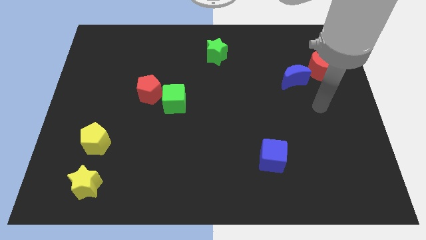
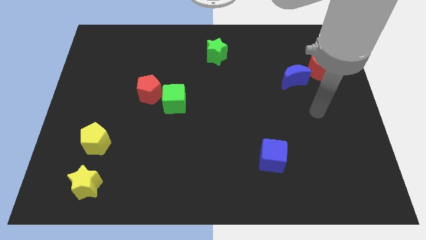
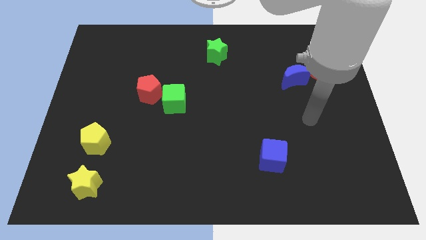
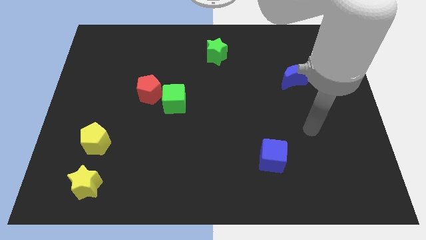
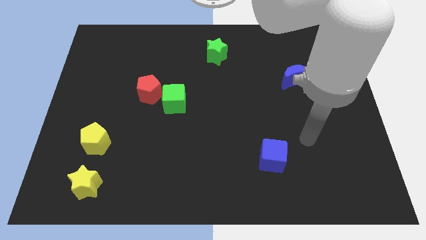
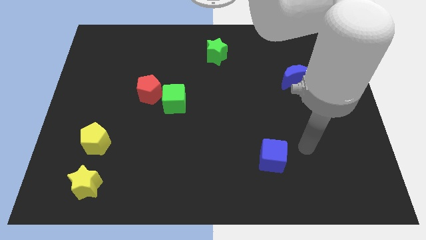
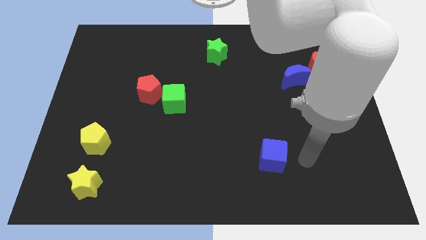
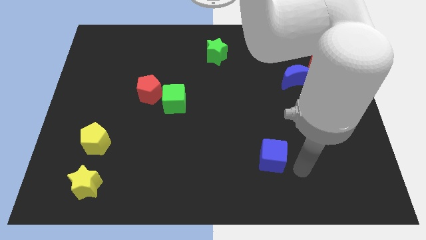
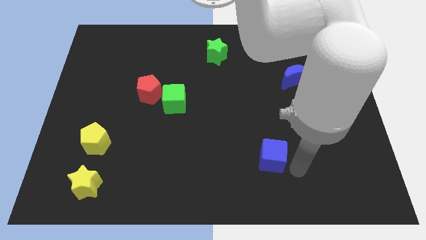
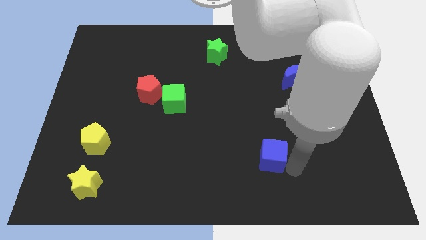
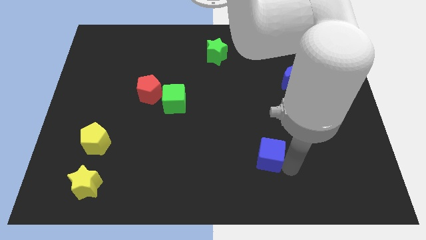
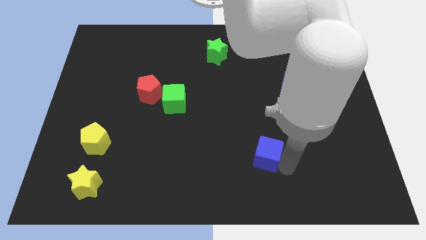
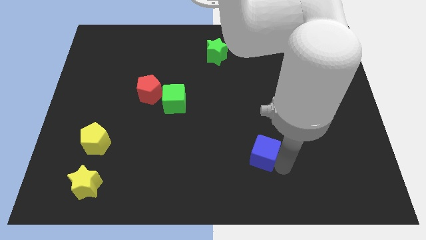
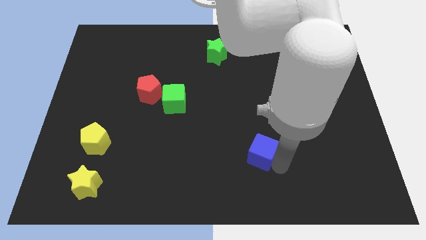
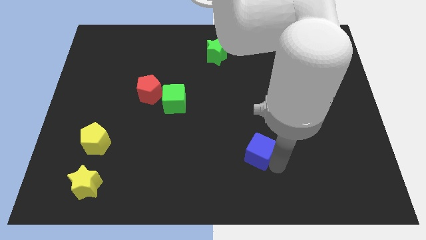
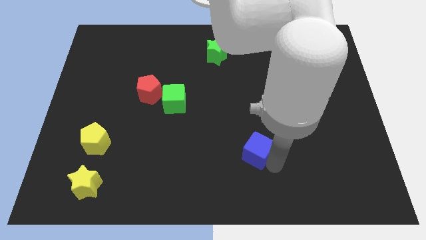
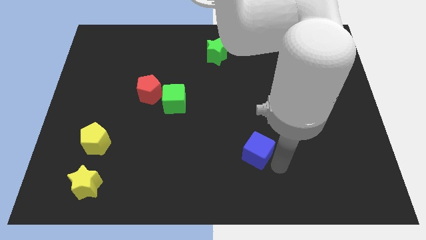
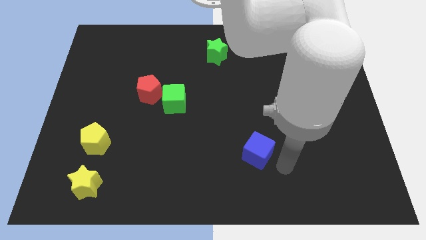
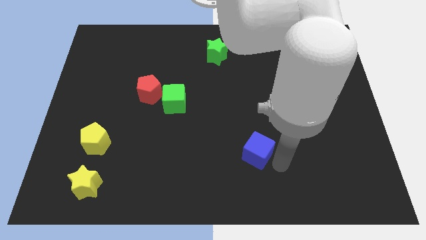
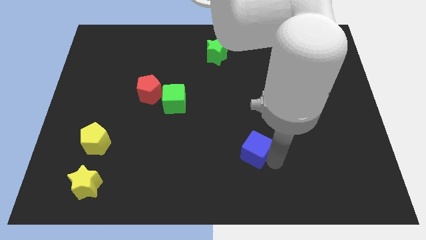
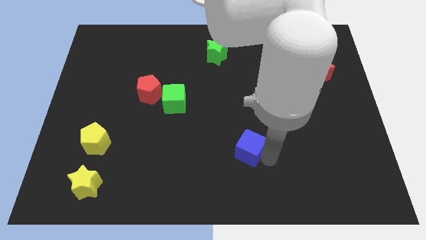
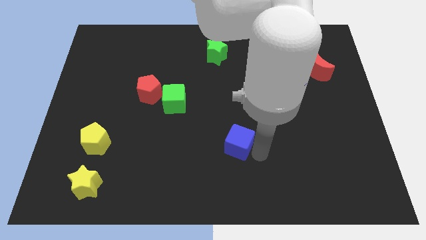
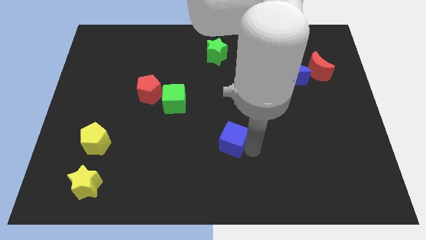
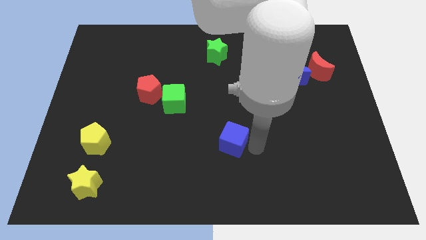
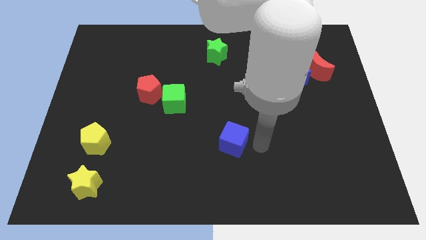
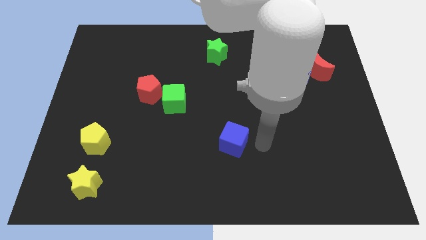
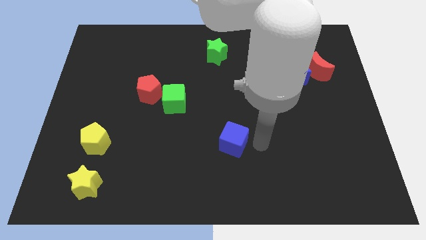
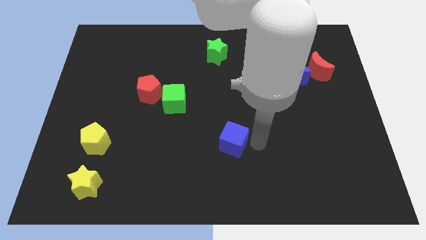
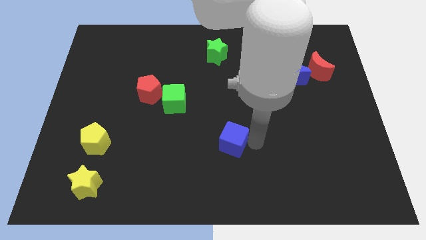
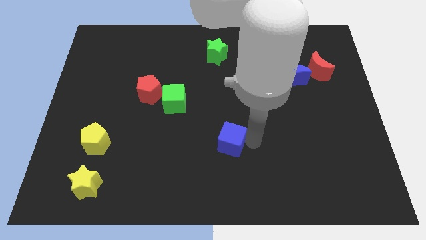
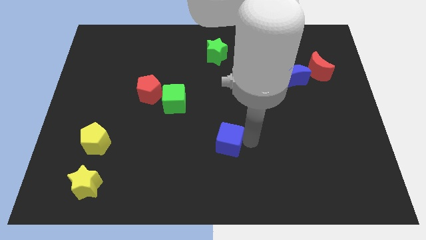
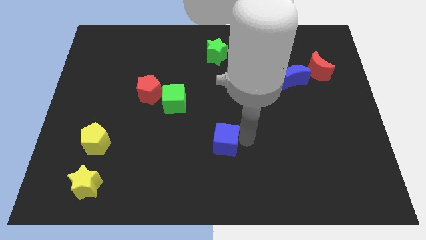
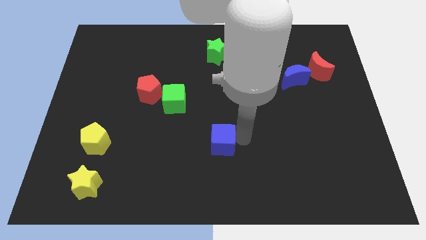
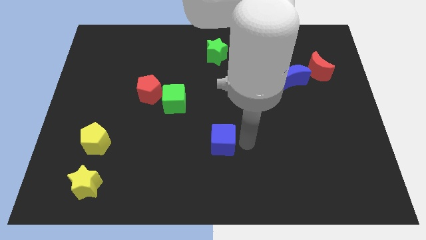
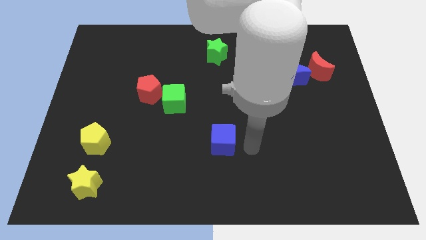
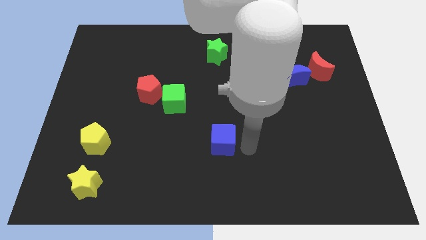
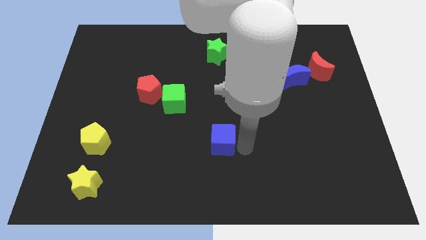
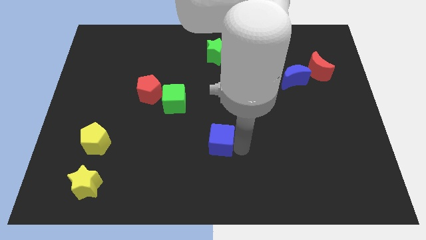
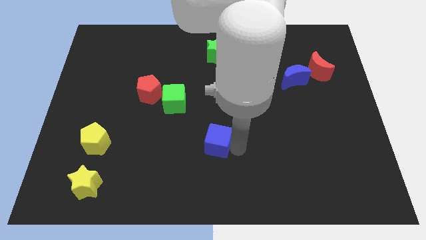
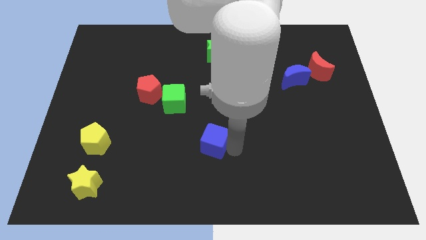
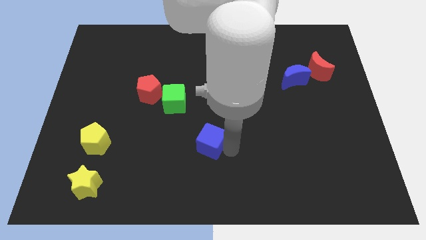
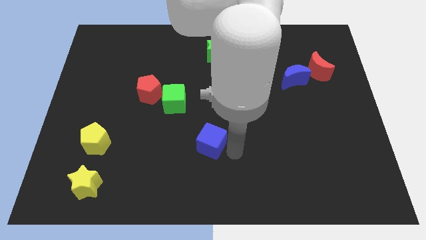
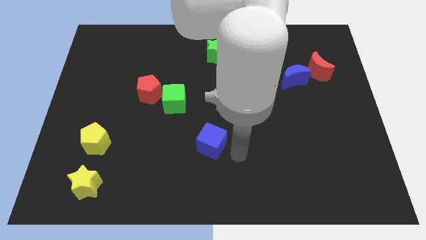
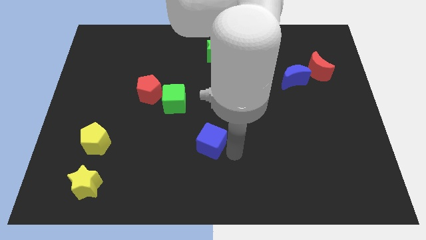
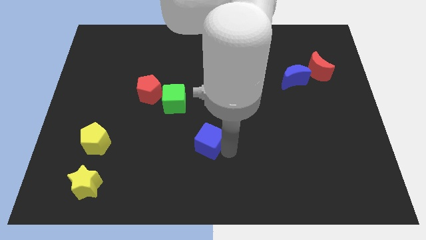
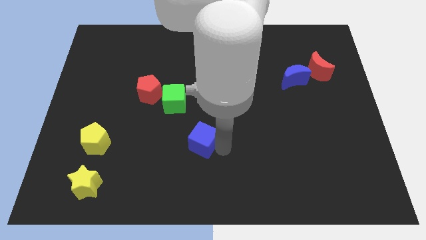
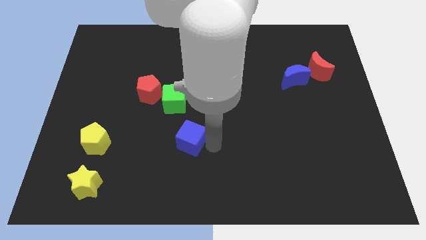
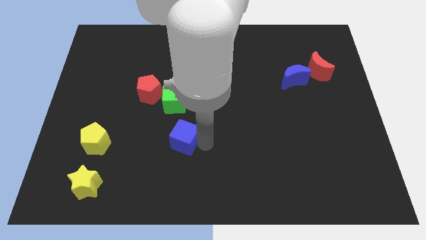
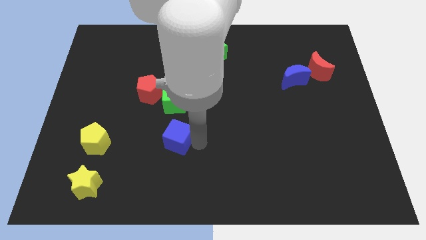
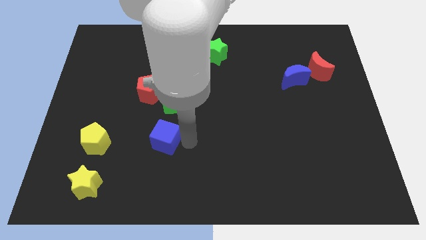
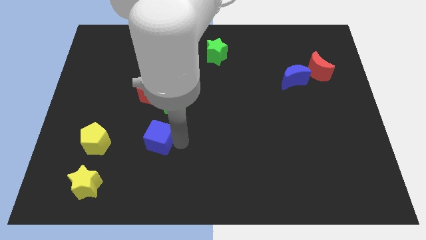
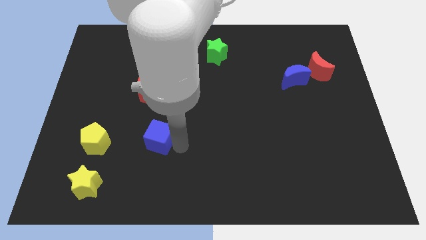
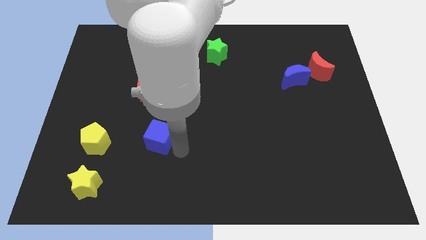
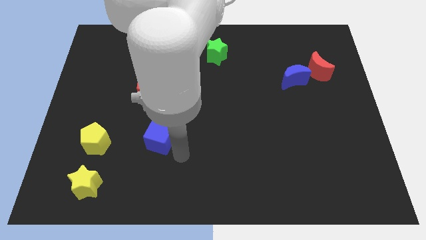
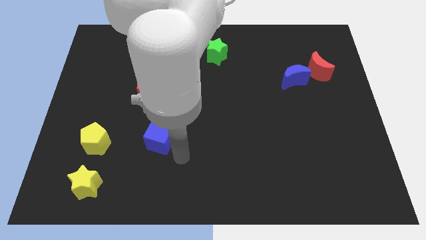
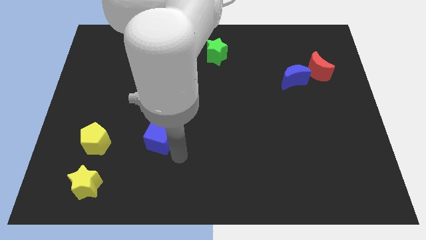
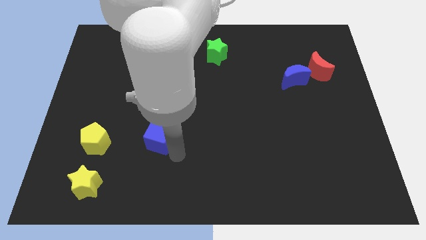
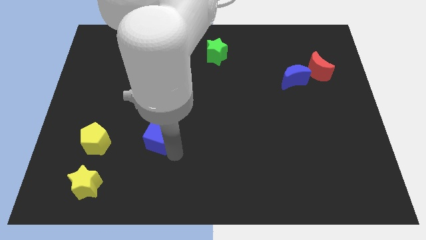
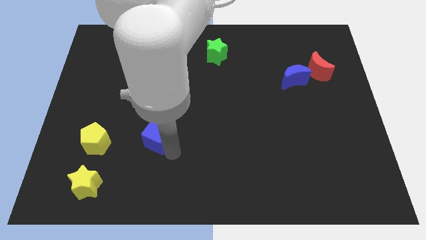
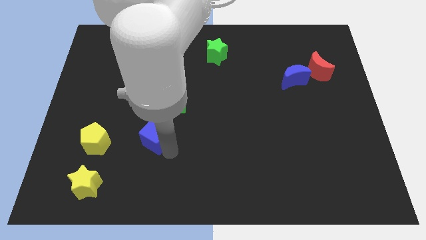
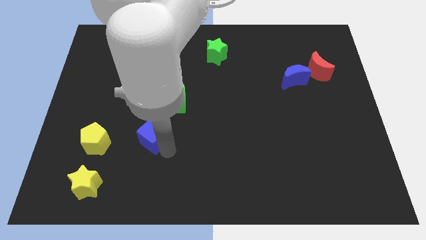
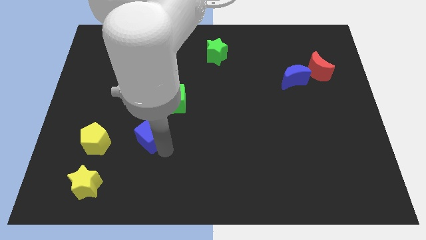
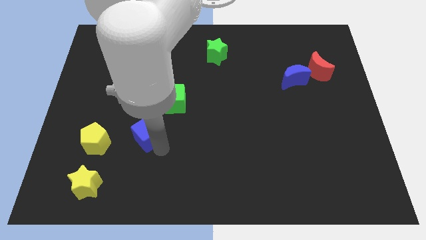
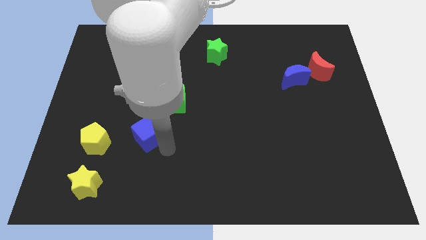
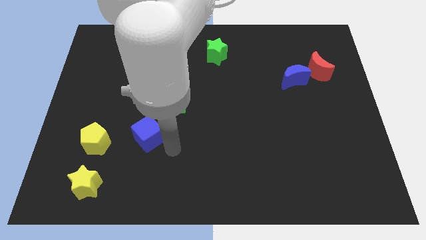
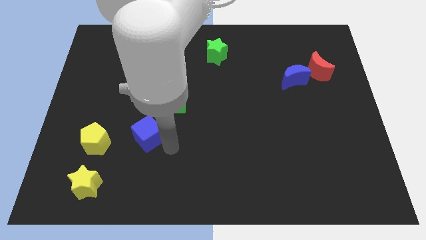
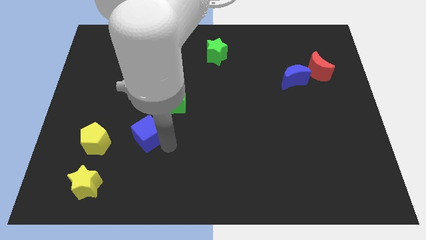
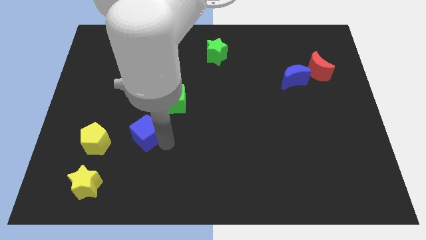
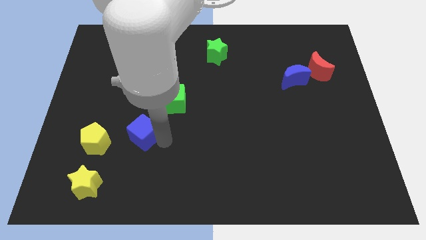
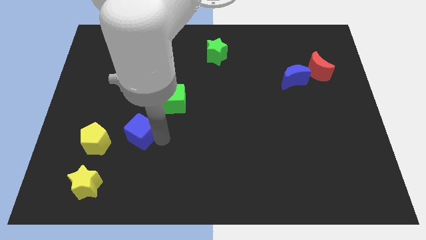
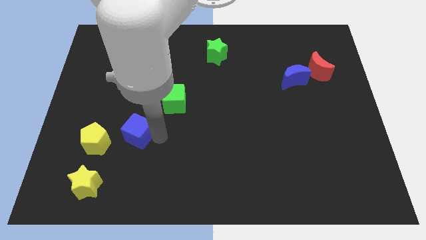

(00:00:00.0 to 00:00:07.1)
move the blue cube to the top right of the yellow pentagon
